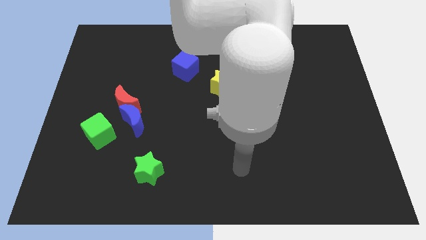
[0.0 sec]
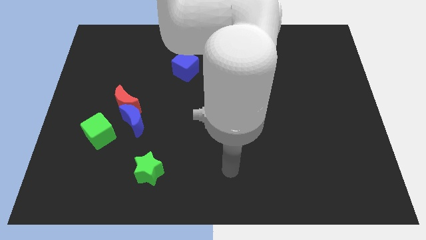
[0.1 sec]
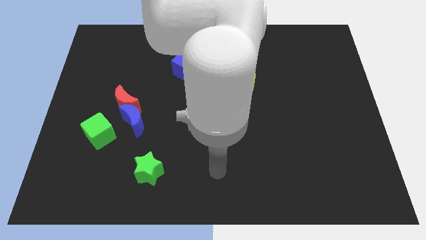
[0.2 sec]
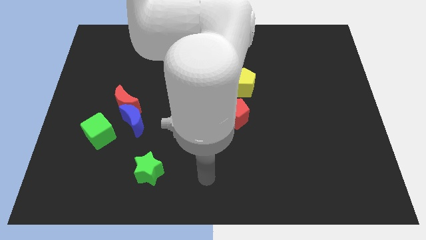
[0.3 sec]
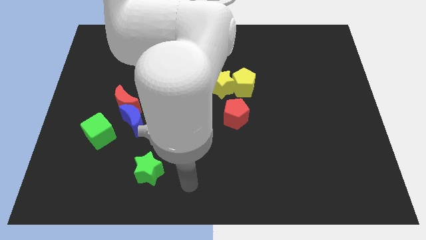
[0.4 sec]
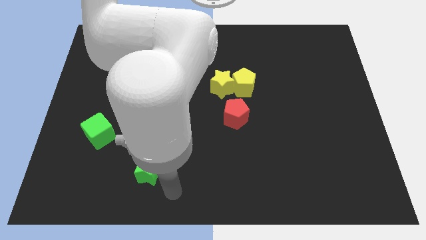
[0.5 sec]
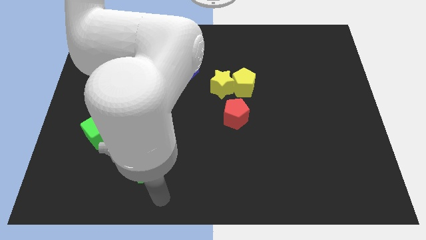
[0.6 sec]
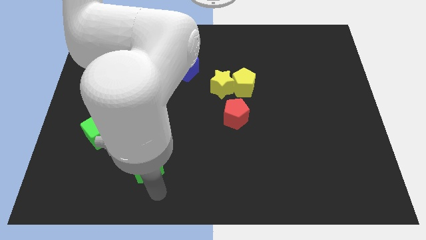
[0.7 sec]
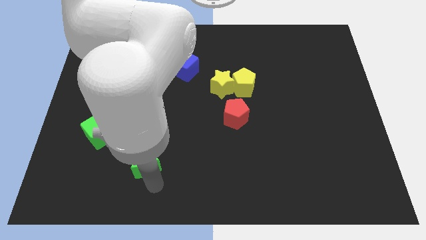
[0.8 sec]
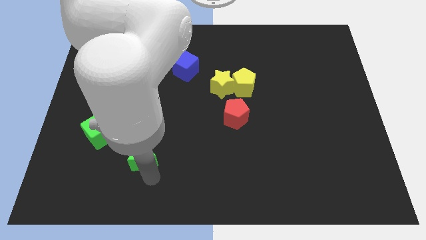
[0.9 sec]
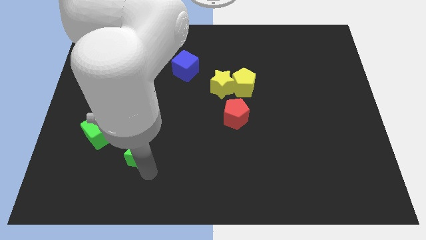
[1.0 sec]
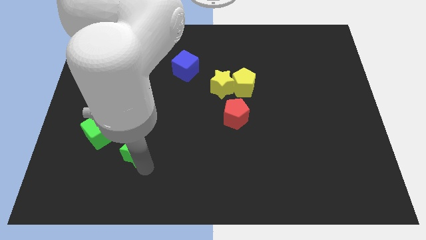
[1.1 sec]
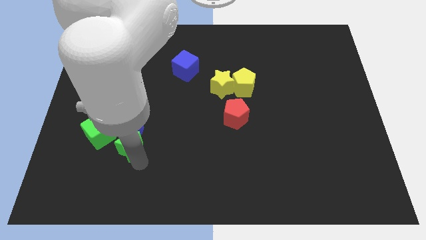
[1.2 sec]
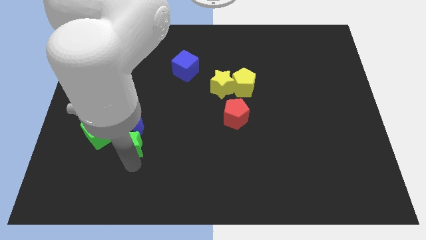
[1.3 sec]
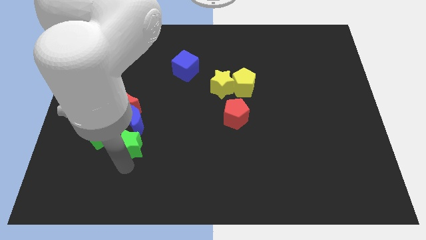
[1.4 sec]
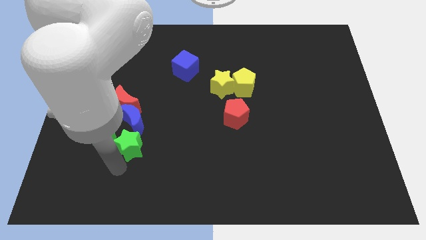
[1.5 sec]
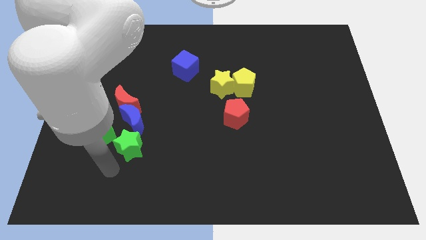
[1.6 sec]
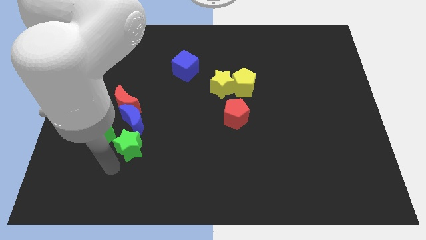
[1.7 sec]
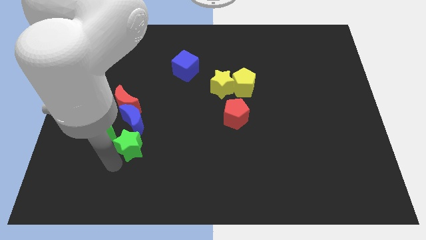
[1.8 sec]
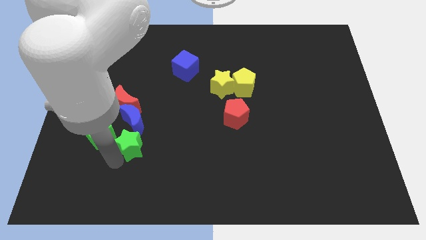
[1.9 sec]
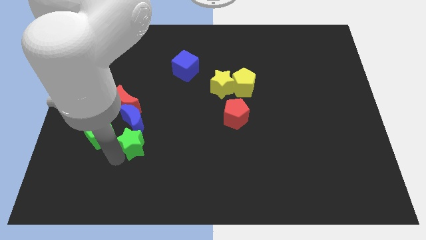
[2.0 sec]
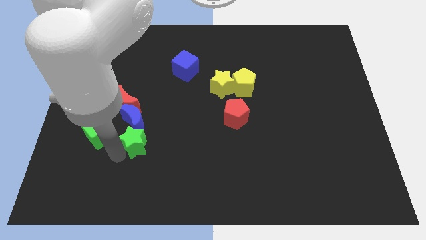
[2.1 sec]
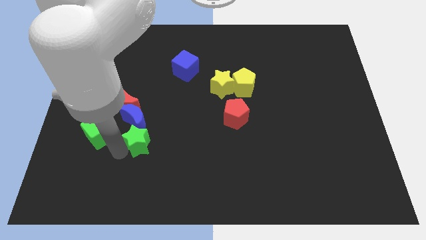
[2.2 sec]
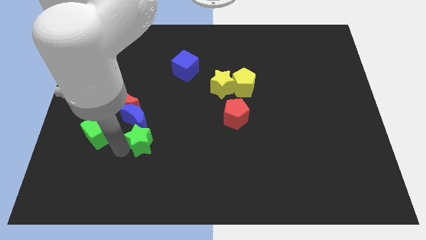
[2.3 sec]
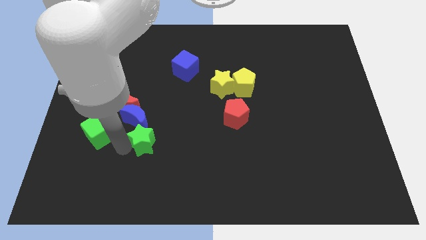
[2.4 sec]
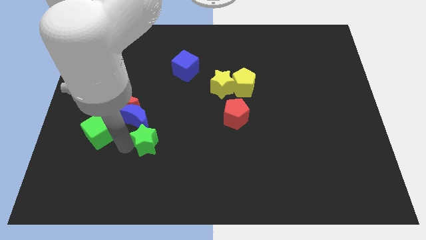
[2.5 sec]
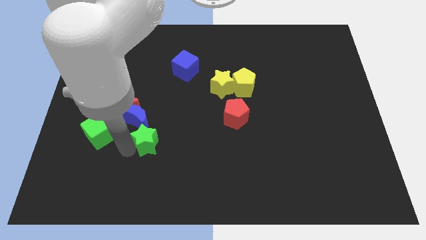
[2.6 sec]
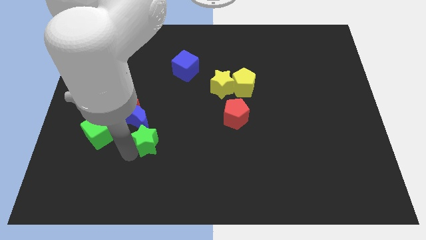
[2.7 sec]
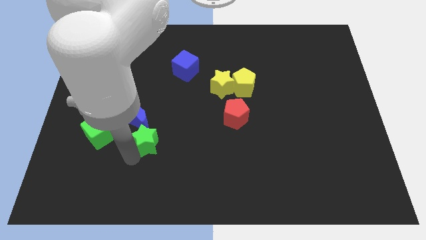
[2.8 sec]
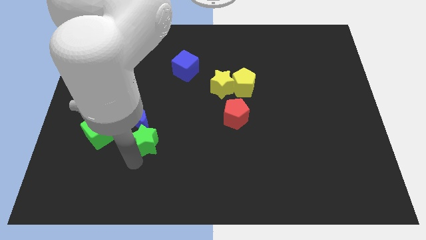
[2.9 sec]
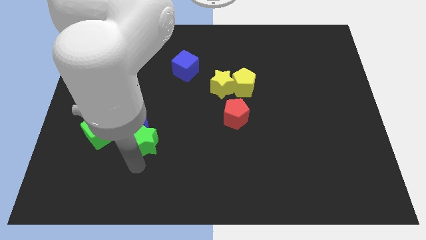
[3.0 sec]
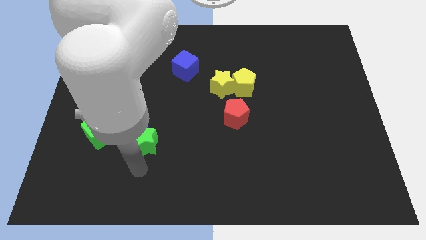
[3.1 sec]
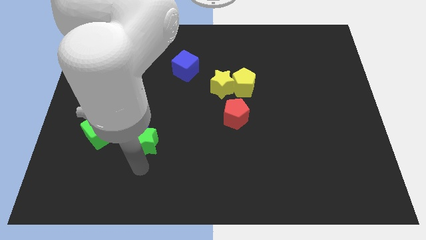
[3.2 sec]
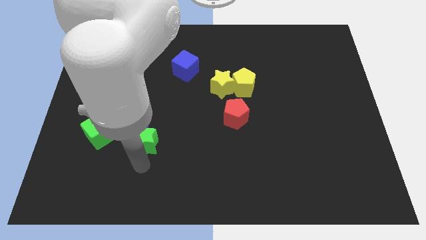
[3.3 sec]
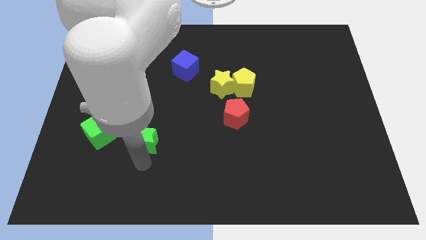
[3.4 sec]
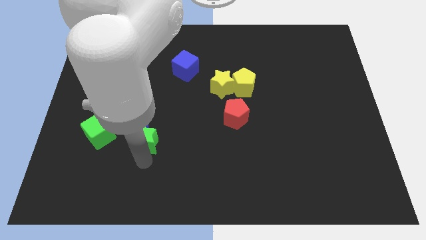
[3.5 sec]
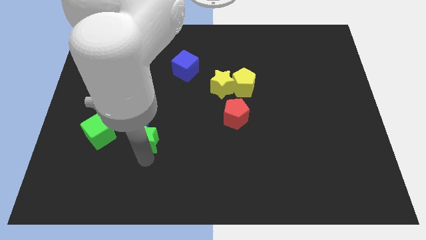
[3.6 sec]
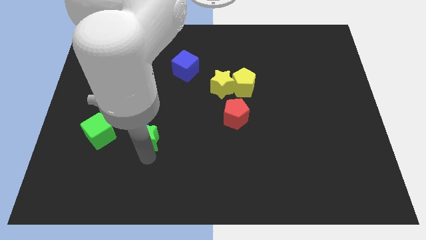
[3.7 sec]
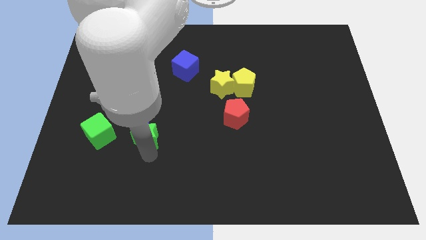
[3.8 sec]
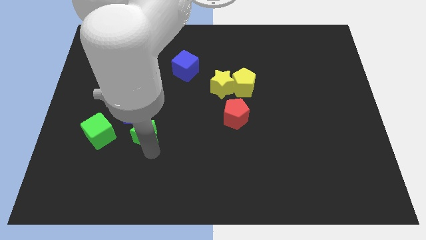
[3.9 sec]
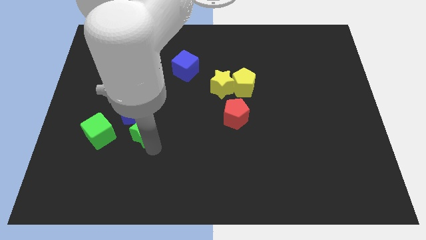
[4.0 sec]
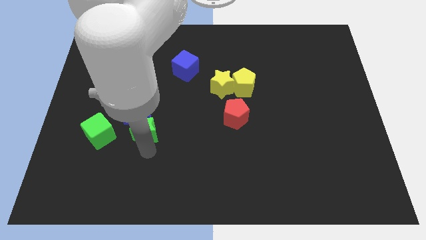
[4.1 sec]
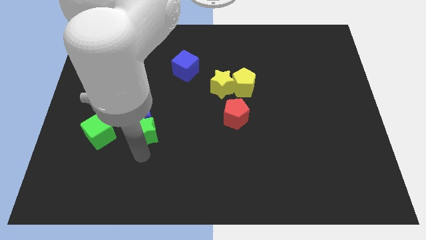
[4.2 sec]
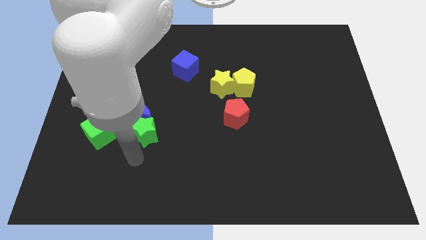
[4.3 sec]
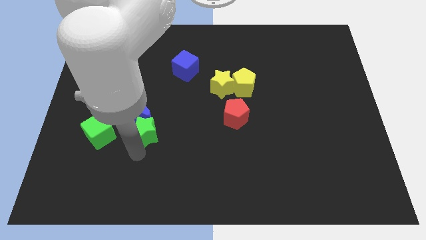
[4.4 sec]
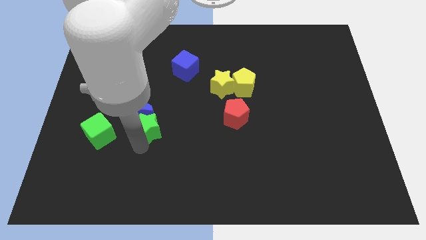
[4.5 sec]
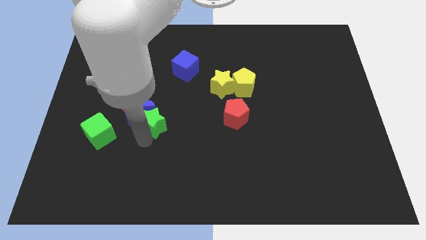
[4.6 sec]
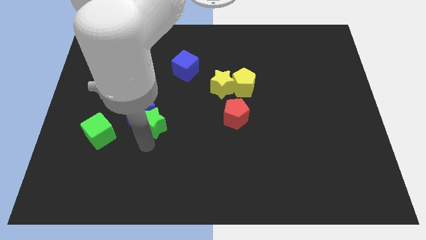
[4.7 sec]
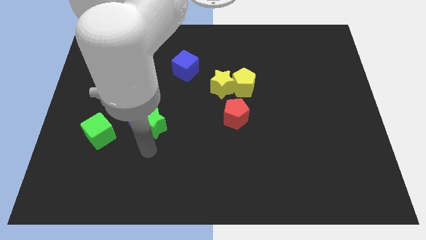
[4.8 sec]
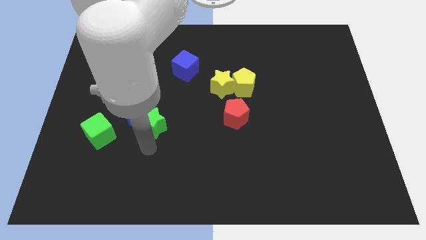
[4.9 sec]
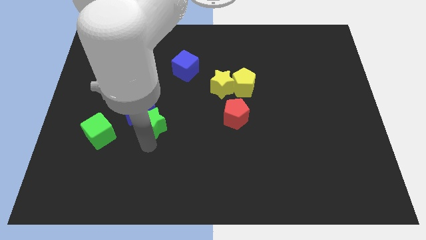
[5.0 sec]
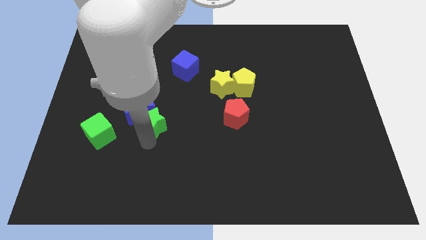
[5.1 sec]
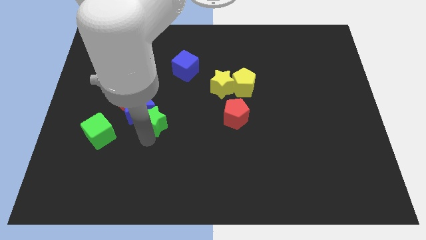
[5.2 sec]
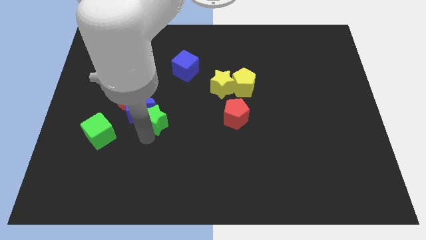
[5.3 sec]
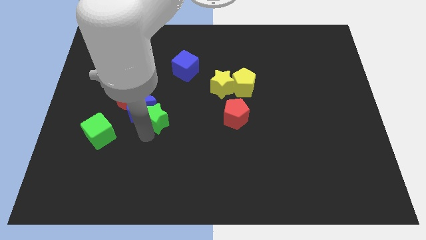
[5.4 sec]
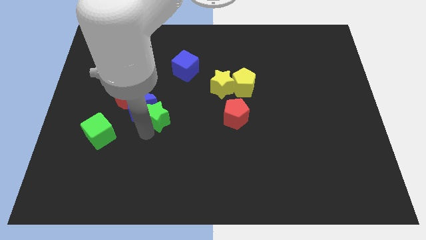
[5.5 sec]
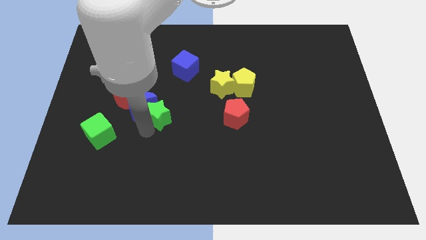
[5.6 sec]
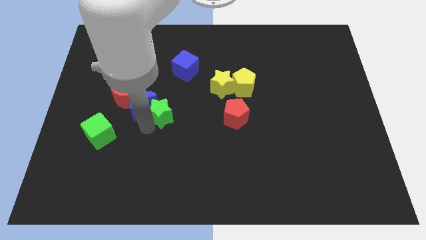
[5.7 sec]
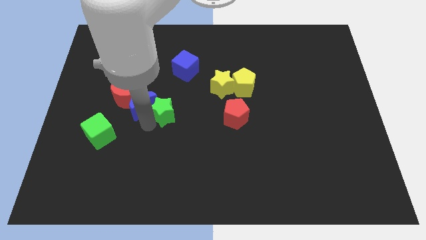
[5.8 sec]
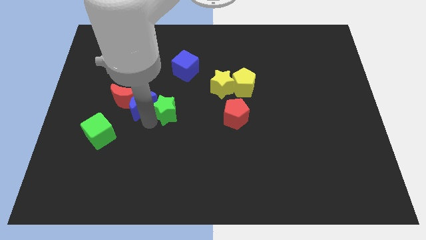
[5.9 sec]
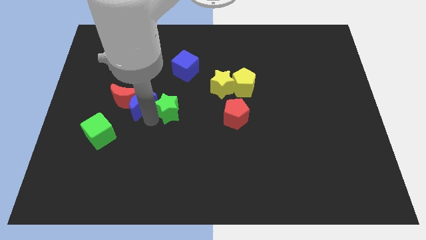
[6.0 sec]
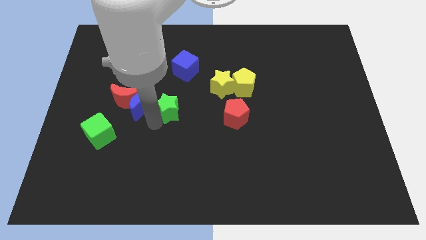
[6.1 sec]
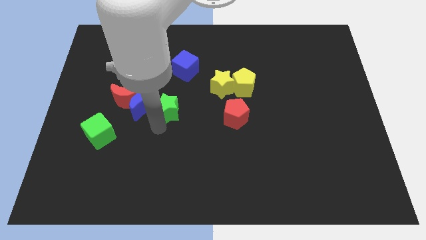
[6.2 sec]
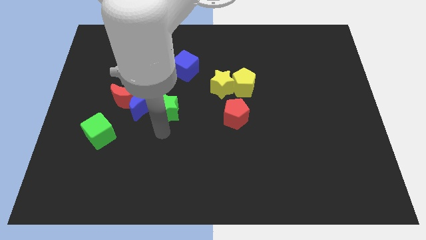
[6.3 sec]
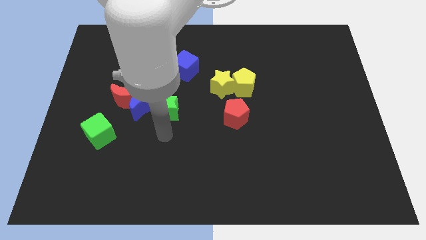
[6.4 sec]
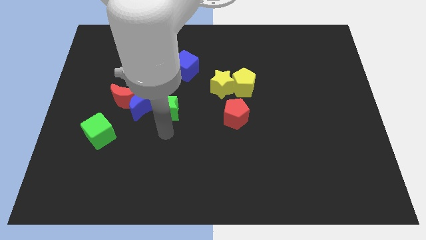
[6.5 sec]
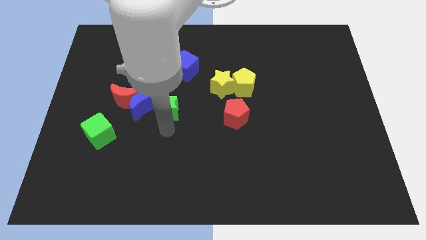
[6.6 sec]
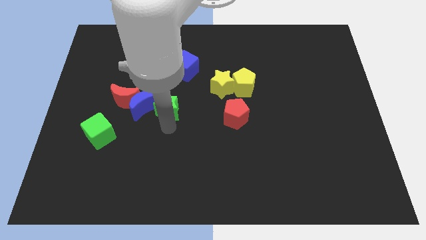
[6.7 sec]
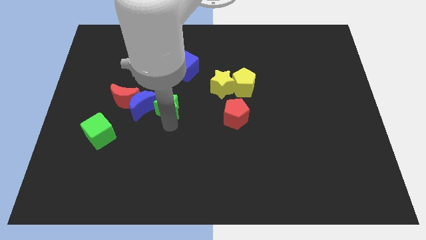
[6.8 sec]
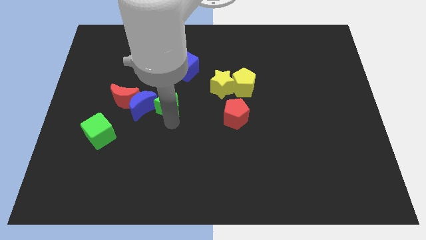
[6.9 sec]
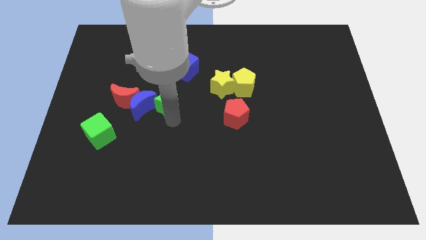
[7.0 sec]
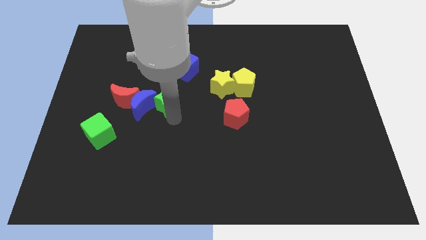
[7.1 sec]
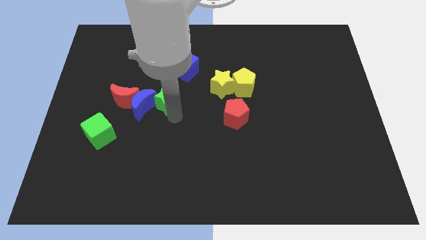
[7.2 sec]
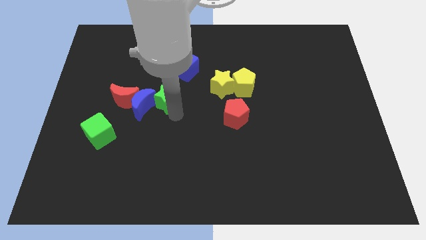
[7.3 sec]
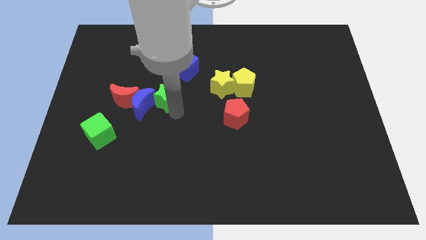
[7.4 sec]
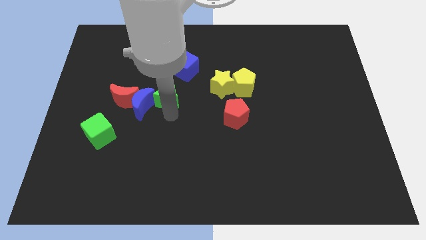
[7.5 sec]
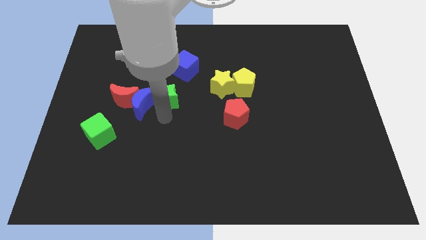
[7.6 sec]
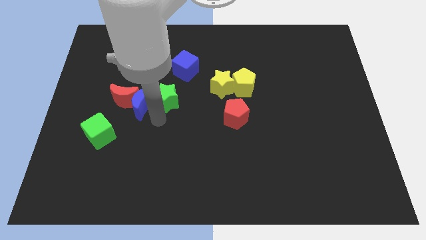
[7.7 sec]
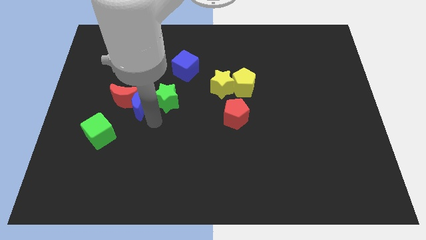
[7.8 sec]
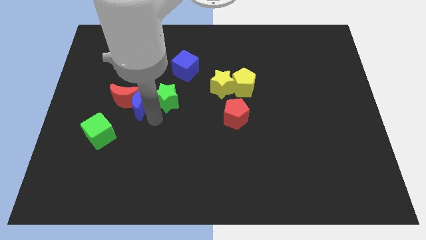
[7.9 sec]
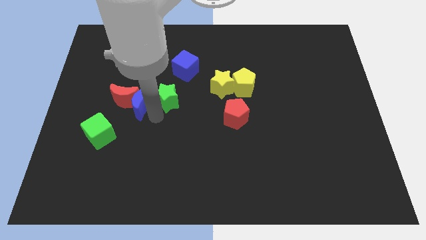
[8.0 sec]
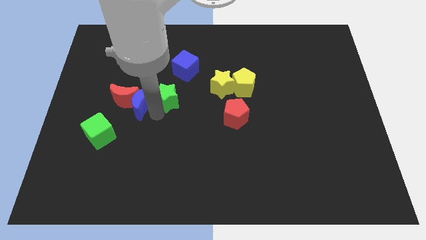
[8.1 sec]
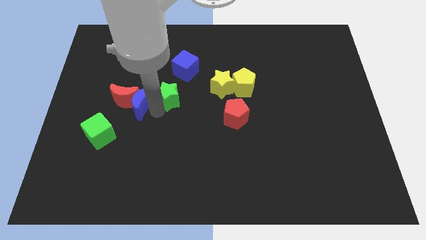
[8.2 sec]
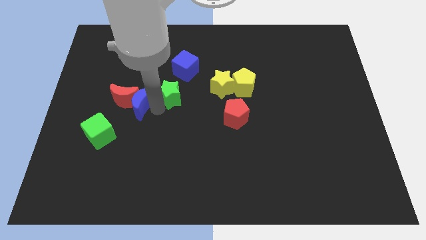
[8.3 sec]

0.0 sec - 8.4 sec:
slide the green star upwards

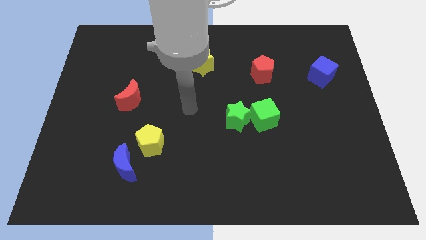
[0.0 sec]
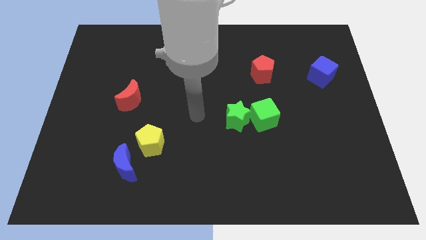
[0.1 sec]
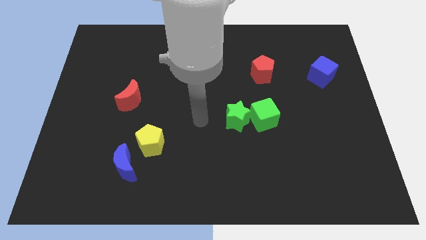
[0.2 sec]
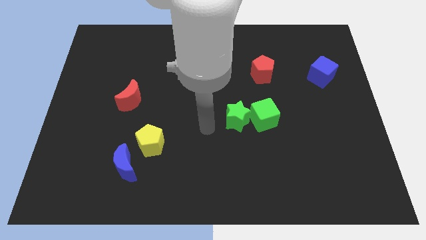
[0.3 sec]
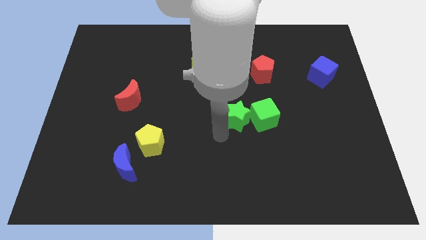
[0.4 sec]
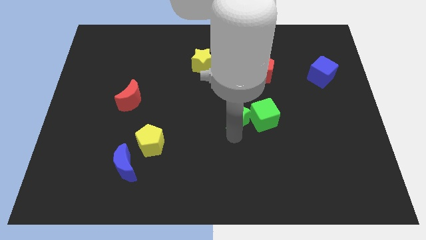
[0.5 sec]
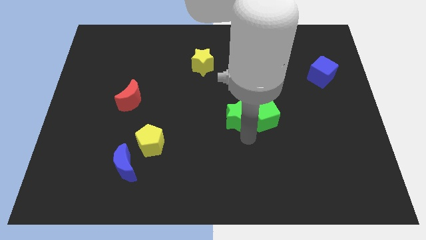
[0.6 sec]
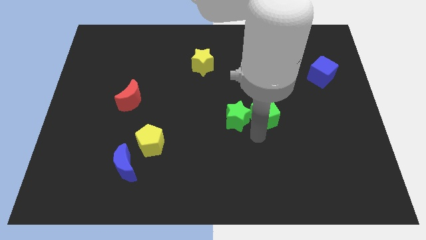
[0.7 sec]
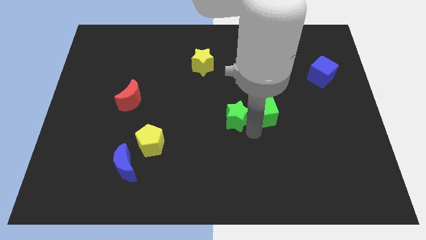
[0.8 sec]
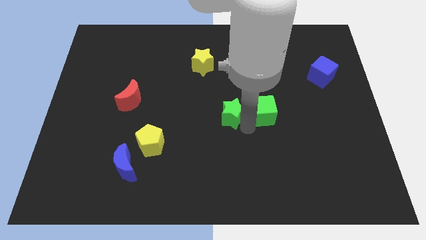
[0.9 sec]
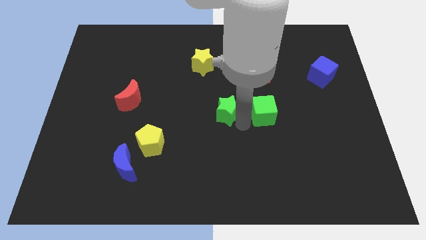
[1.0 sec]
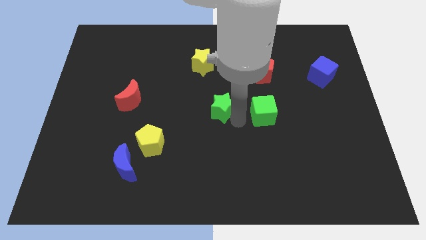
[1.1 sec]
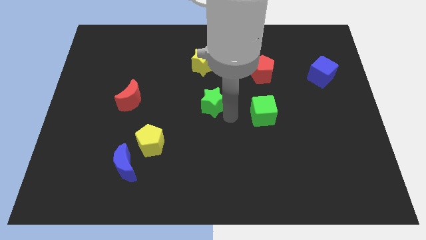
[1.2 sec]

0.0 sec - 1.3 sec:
slightly slide the green star up and left
